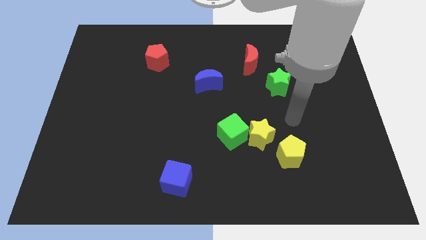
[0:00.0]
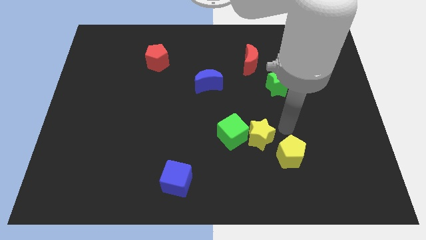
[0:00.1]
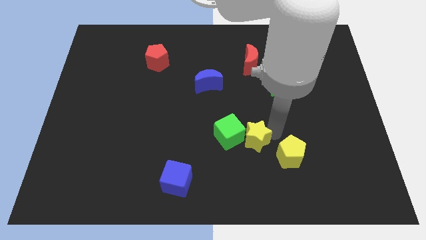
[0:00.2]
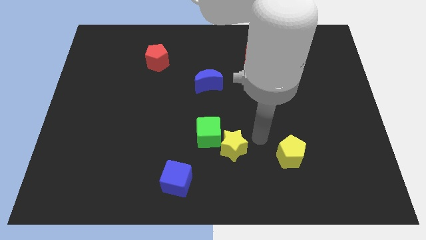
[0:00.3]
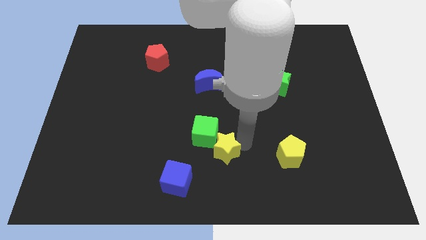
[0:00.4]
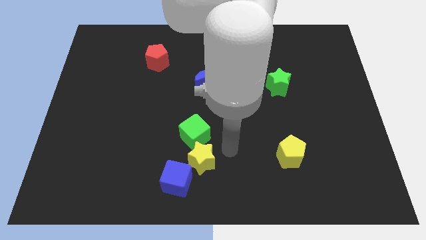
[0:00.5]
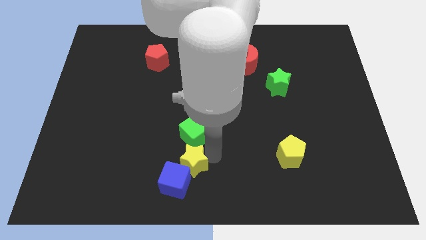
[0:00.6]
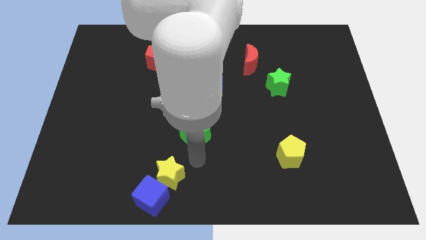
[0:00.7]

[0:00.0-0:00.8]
separate the green cube from the yellow star

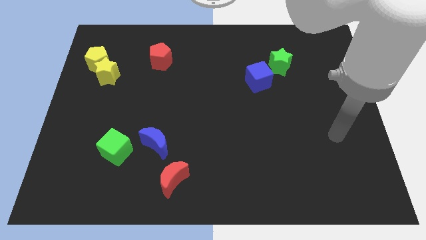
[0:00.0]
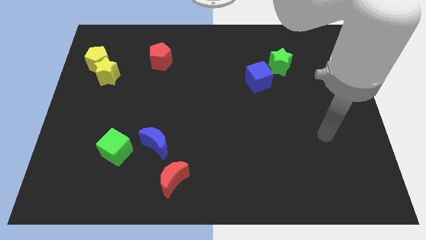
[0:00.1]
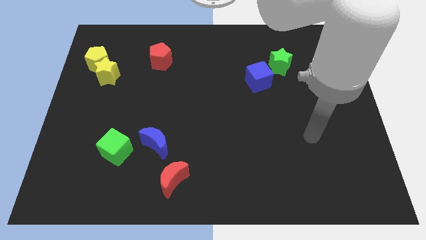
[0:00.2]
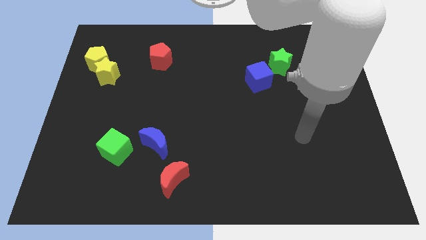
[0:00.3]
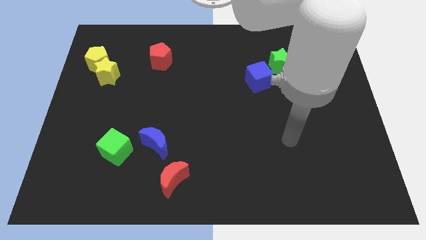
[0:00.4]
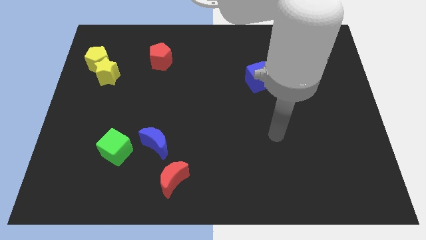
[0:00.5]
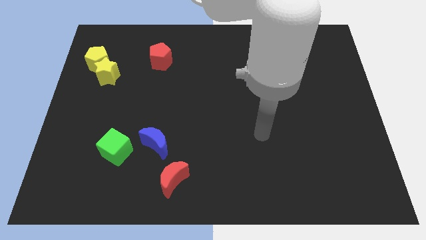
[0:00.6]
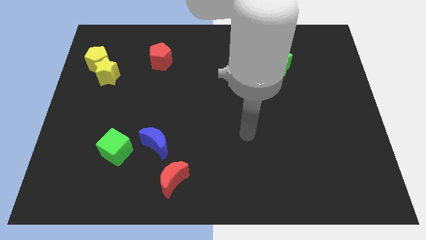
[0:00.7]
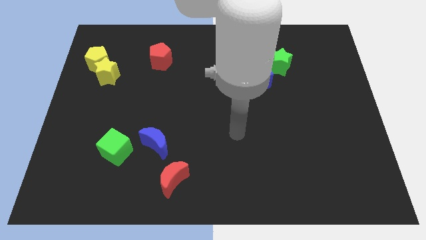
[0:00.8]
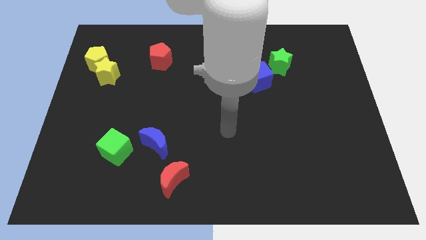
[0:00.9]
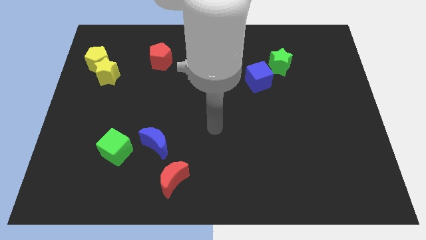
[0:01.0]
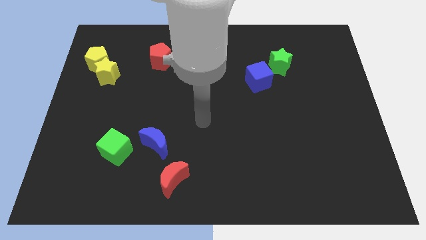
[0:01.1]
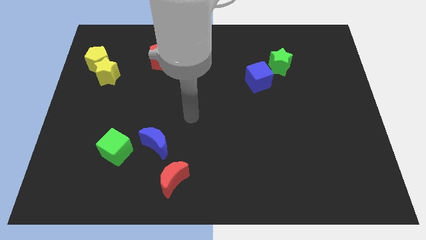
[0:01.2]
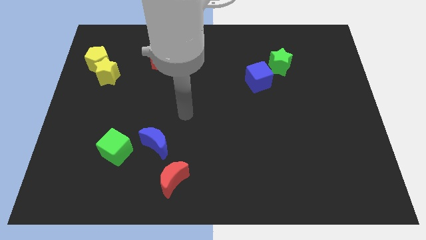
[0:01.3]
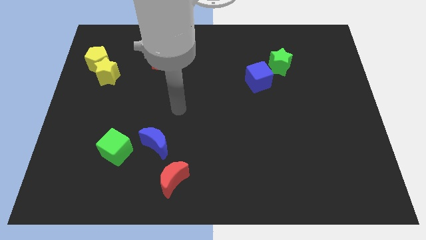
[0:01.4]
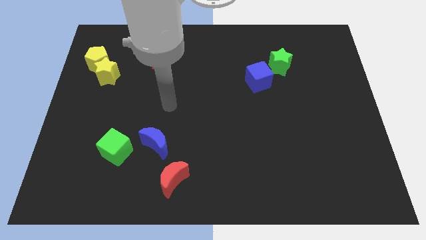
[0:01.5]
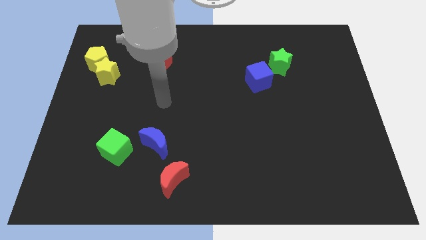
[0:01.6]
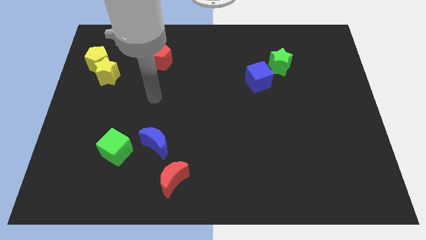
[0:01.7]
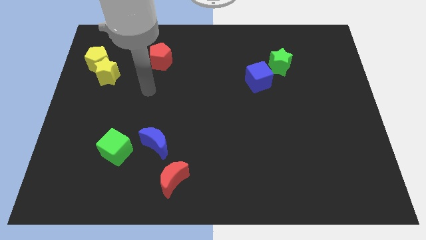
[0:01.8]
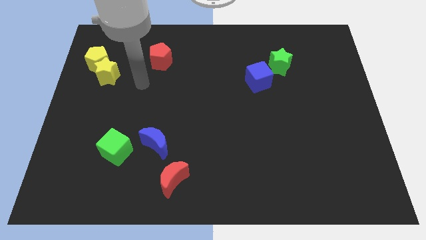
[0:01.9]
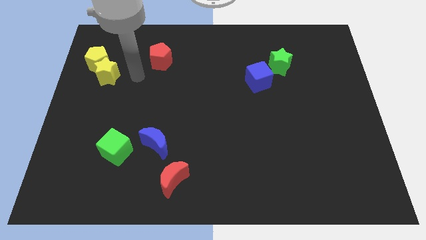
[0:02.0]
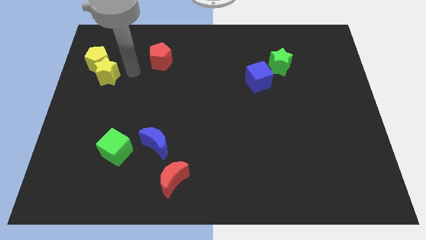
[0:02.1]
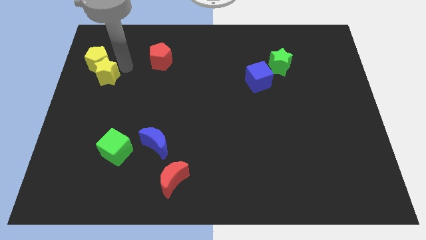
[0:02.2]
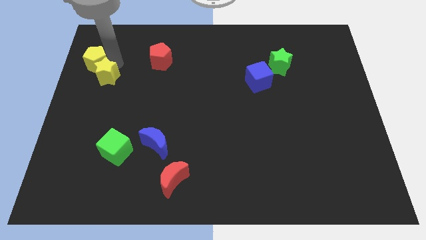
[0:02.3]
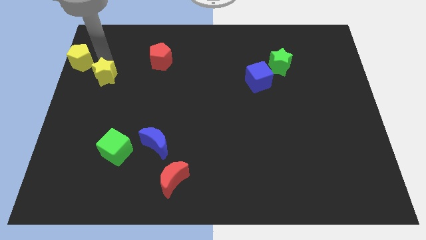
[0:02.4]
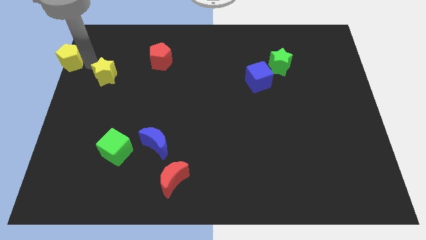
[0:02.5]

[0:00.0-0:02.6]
separate the yellow star from the yellow pentagon

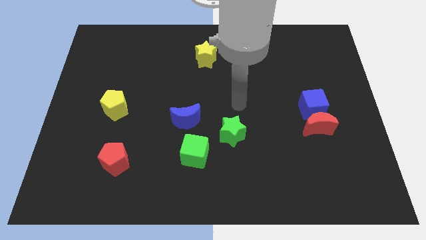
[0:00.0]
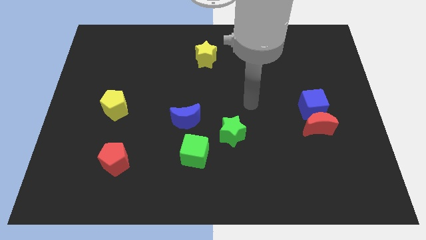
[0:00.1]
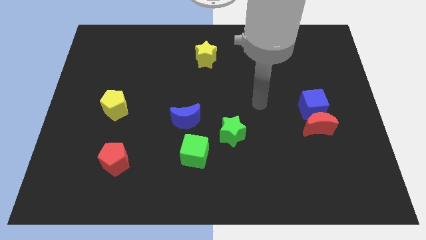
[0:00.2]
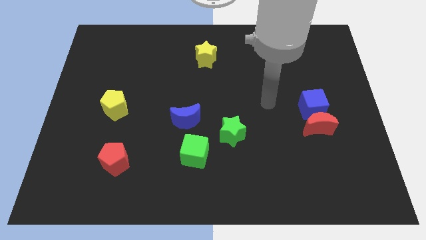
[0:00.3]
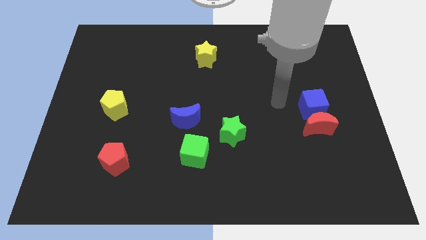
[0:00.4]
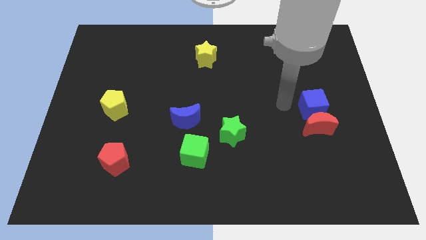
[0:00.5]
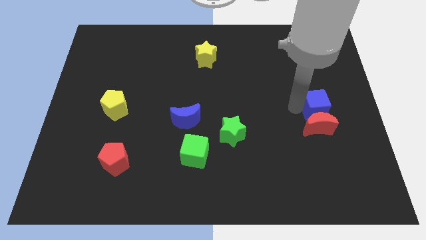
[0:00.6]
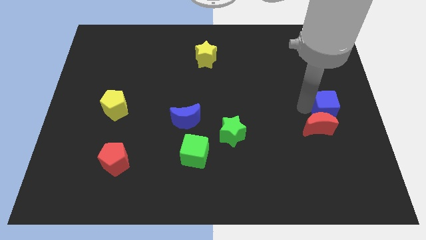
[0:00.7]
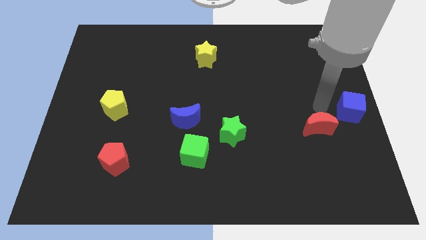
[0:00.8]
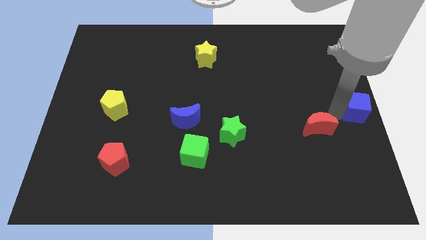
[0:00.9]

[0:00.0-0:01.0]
pull the red moon apart from the blue cube

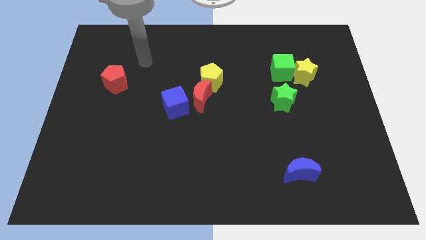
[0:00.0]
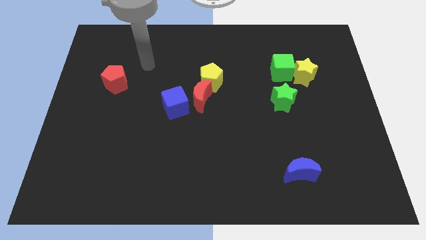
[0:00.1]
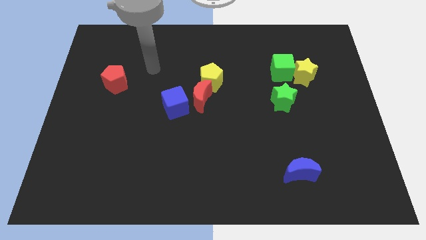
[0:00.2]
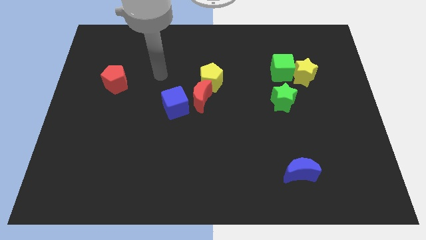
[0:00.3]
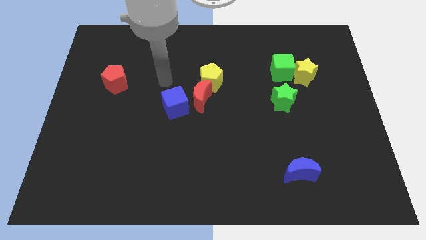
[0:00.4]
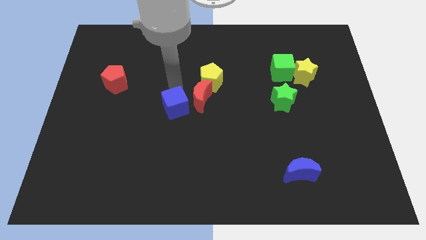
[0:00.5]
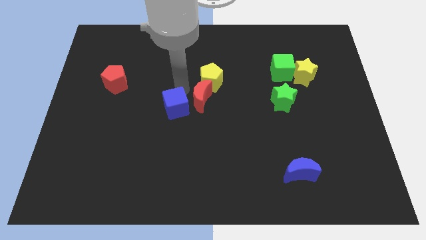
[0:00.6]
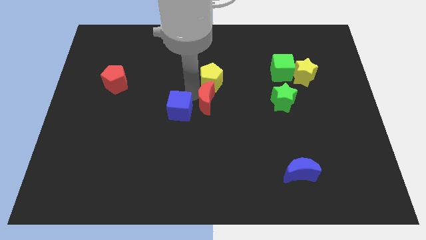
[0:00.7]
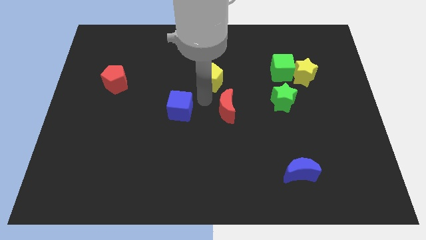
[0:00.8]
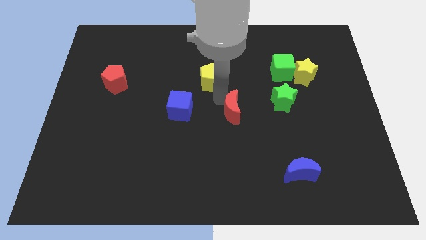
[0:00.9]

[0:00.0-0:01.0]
move the yellow pentagon away from the red moon

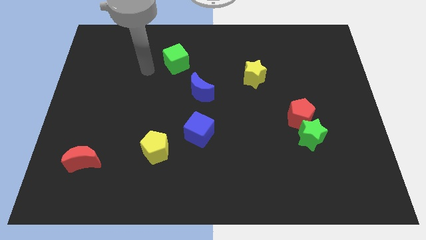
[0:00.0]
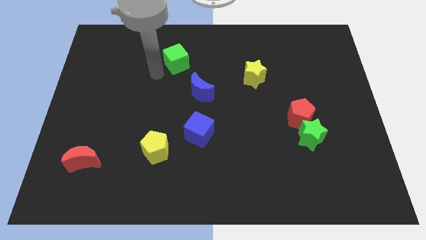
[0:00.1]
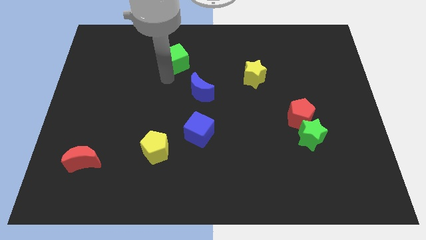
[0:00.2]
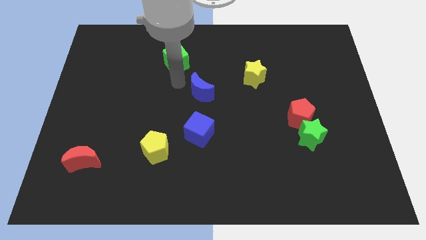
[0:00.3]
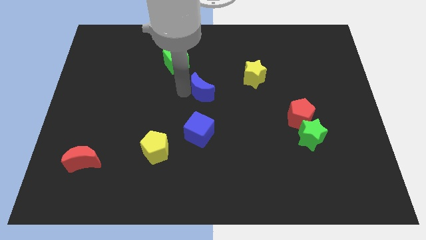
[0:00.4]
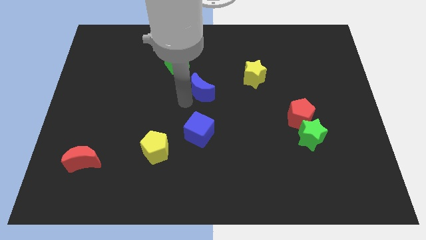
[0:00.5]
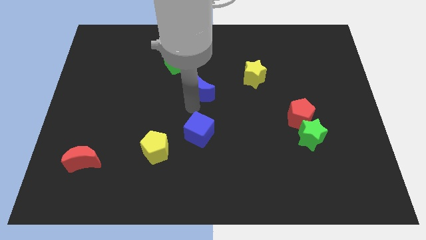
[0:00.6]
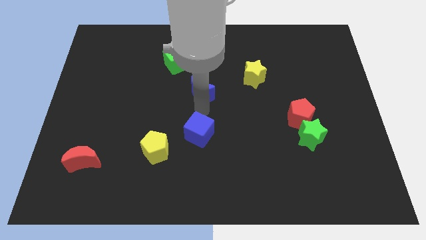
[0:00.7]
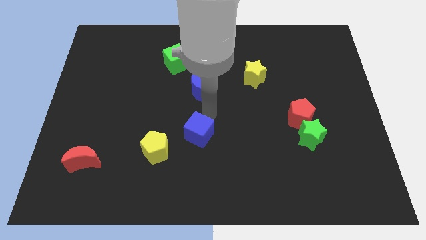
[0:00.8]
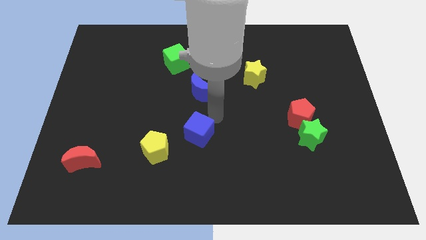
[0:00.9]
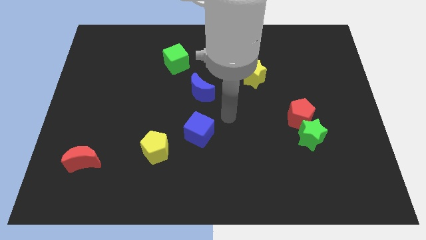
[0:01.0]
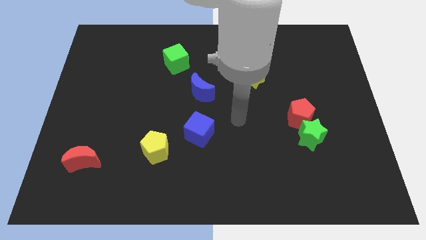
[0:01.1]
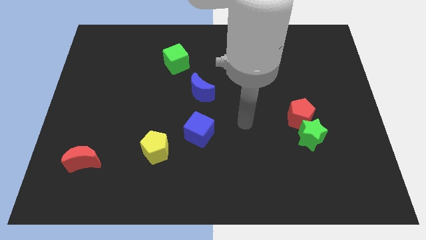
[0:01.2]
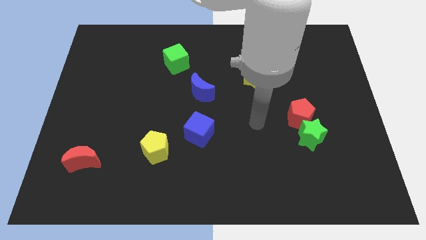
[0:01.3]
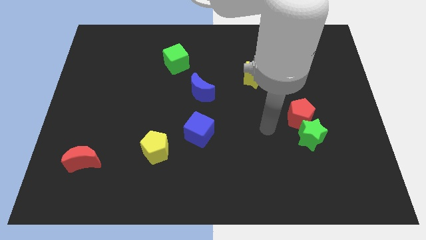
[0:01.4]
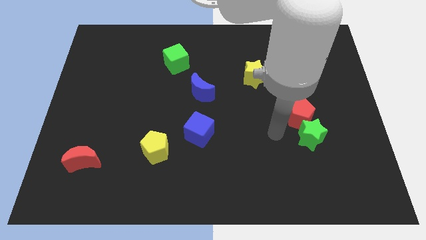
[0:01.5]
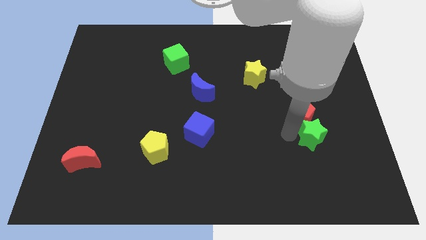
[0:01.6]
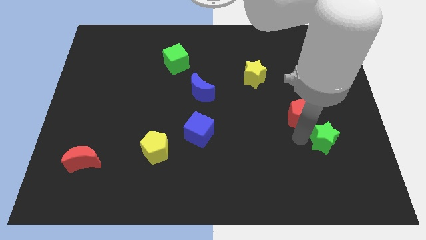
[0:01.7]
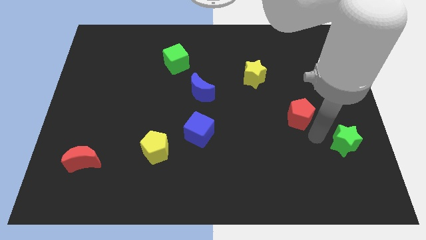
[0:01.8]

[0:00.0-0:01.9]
separate the red pentagon from the green star

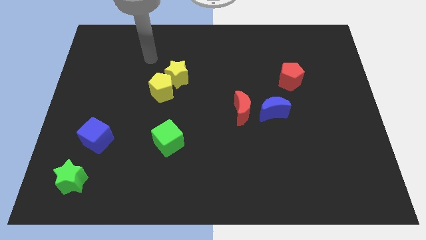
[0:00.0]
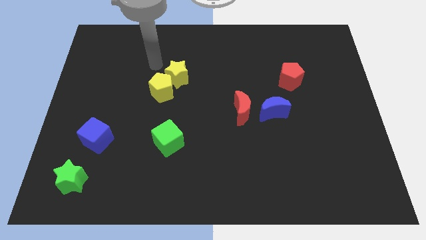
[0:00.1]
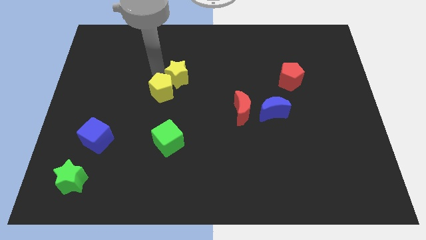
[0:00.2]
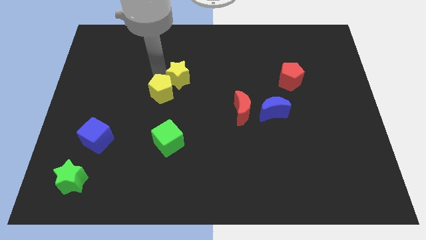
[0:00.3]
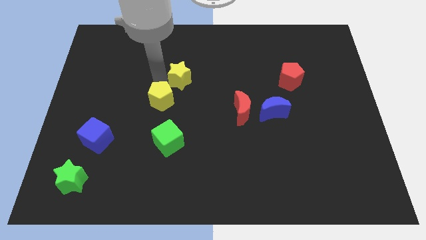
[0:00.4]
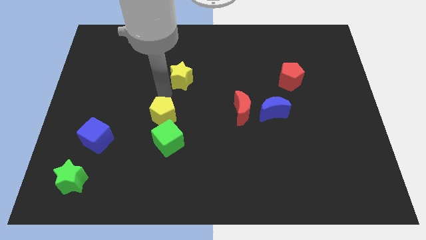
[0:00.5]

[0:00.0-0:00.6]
move the yellow star away from the yellow pentagon

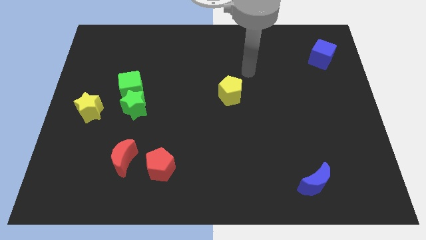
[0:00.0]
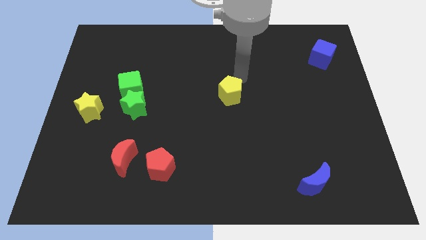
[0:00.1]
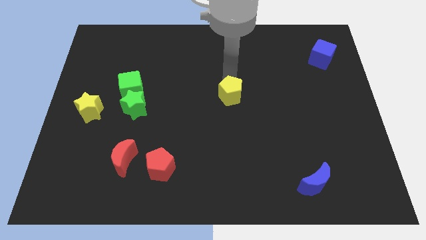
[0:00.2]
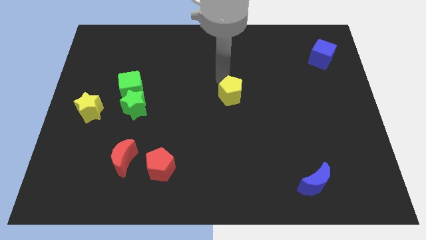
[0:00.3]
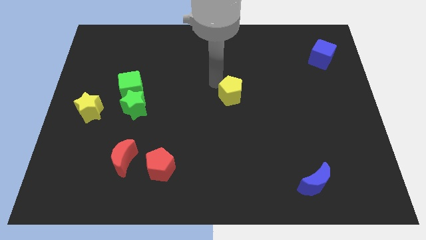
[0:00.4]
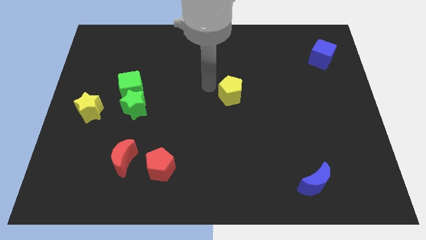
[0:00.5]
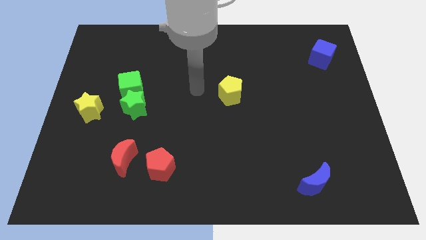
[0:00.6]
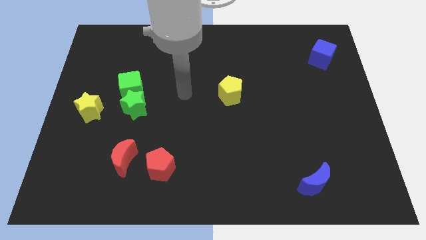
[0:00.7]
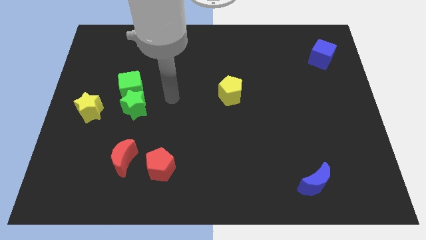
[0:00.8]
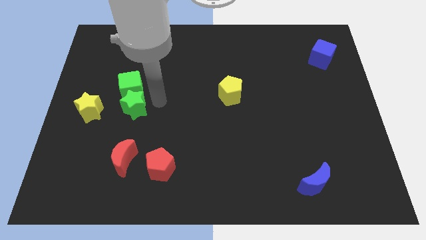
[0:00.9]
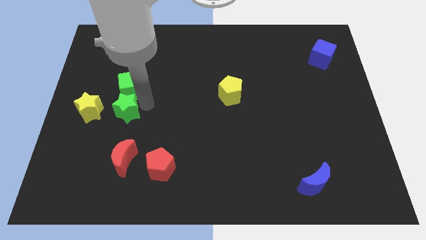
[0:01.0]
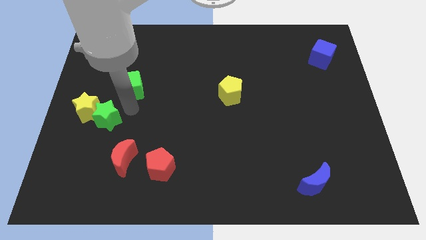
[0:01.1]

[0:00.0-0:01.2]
separate the green cube from the green star

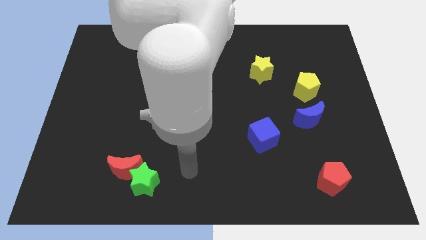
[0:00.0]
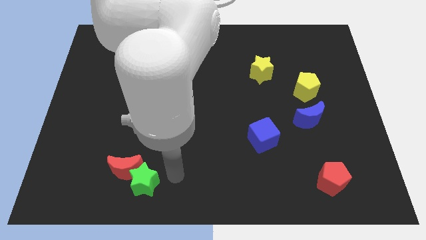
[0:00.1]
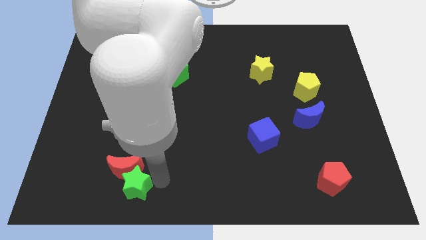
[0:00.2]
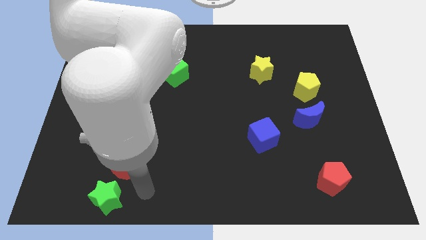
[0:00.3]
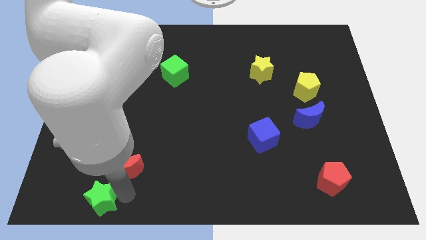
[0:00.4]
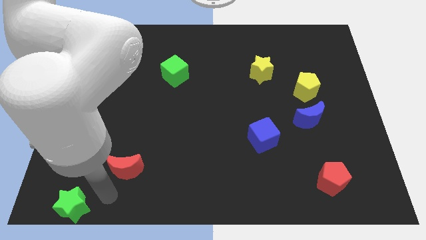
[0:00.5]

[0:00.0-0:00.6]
move the red moon away from the green star
